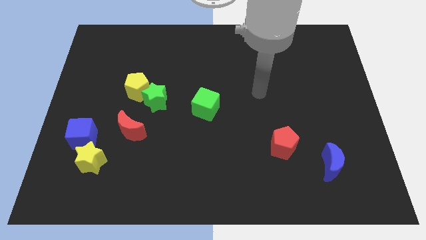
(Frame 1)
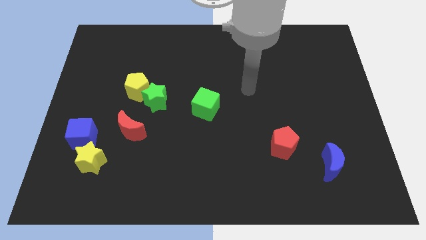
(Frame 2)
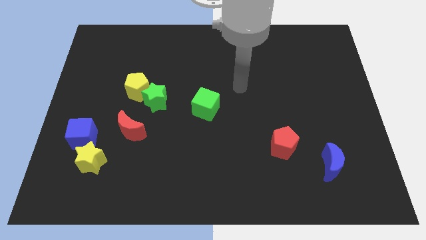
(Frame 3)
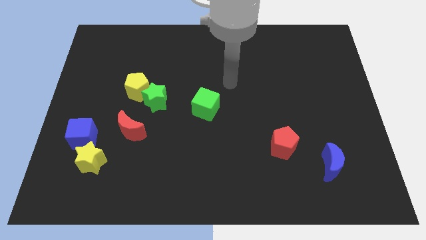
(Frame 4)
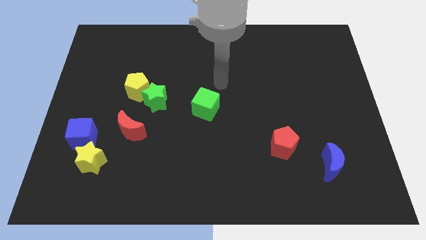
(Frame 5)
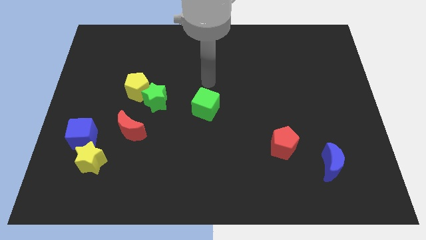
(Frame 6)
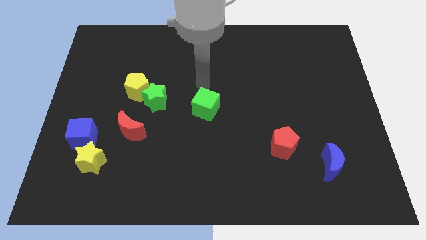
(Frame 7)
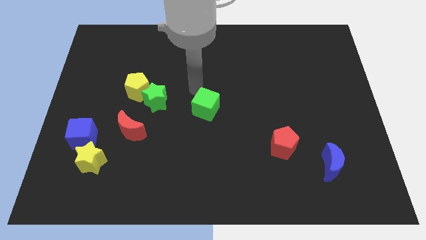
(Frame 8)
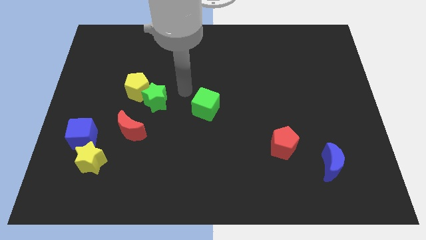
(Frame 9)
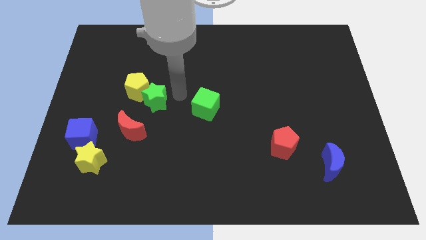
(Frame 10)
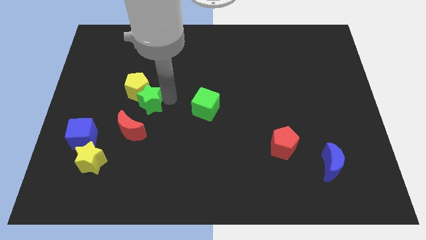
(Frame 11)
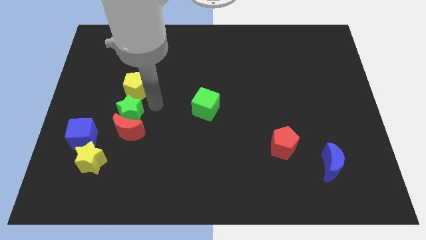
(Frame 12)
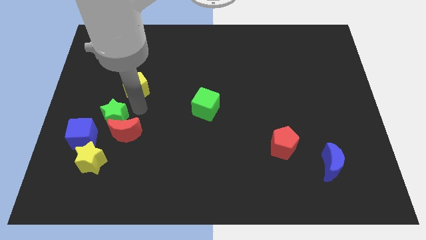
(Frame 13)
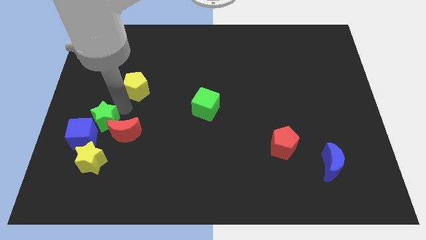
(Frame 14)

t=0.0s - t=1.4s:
pull the yellow pentagon apart from the green star

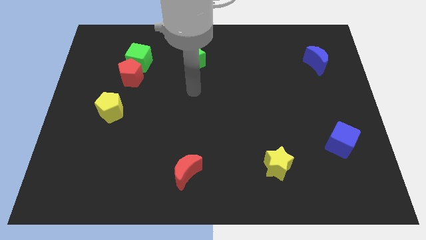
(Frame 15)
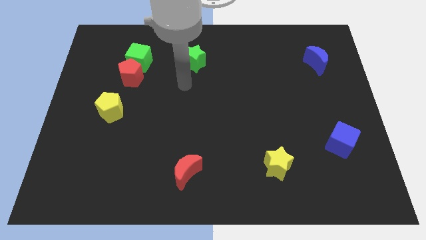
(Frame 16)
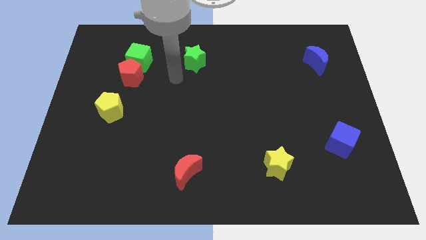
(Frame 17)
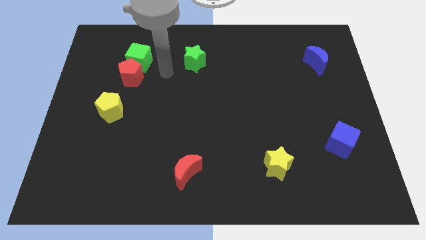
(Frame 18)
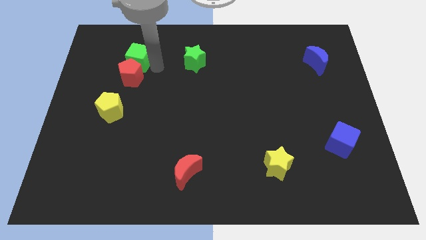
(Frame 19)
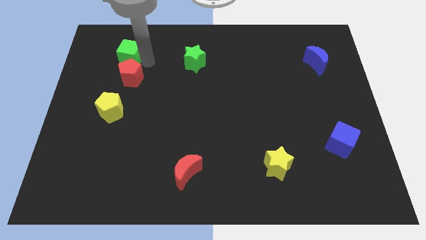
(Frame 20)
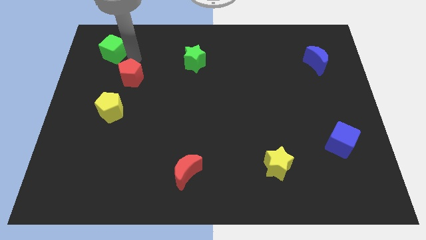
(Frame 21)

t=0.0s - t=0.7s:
separate the red pentagon from the green cube

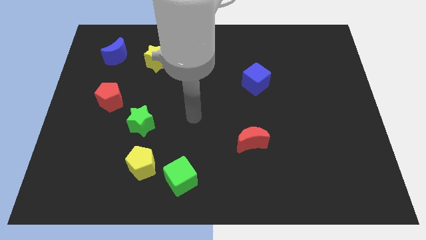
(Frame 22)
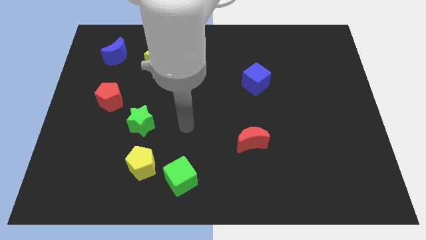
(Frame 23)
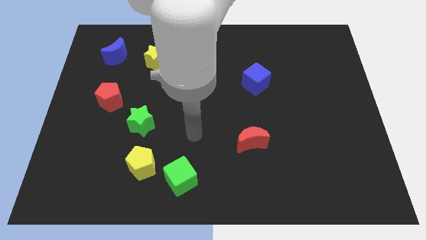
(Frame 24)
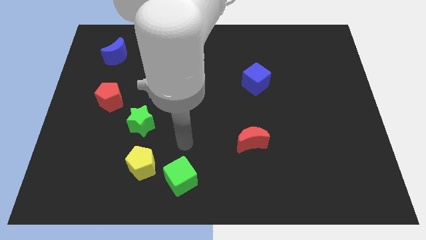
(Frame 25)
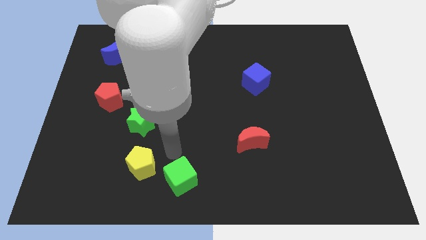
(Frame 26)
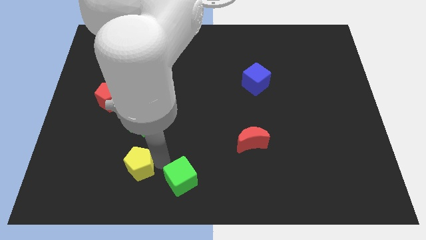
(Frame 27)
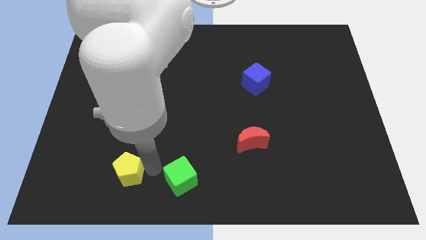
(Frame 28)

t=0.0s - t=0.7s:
move the green cube away from the yellow pentagon

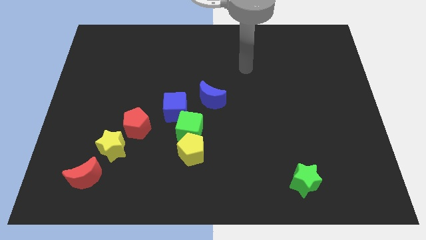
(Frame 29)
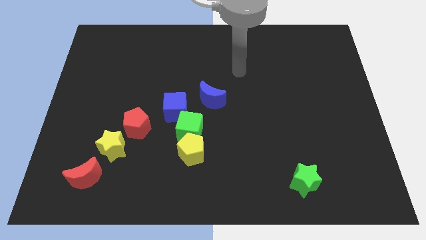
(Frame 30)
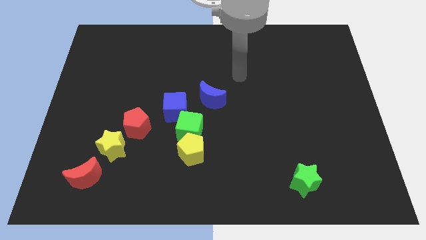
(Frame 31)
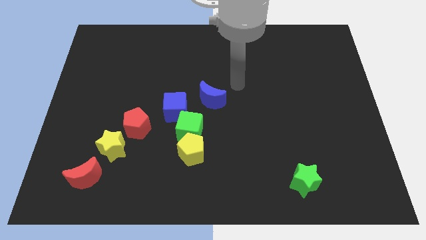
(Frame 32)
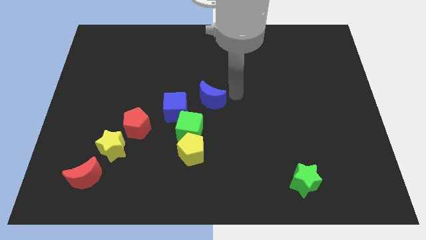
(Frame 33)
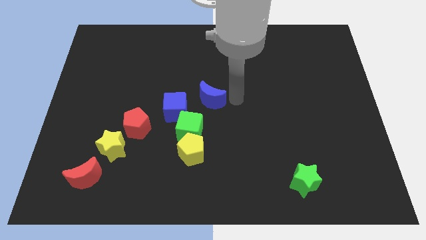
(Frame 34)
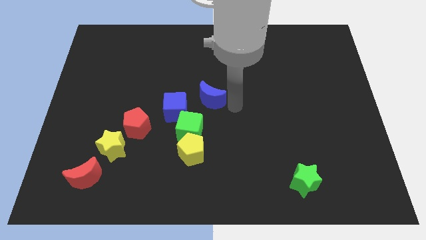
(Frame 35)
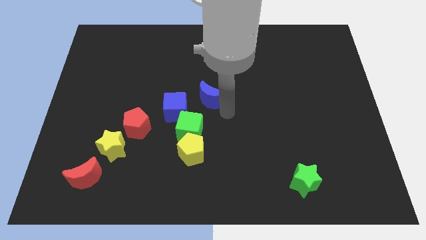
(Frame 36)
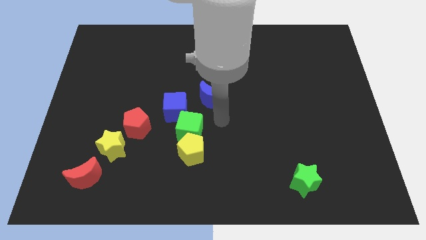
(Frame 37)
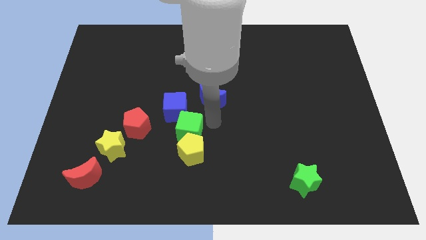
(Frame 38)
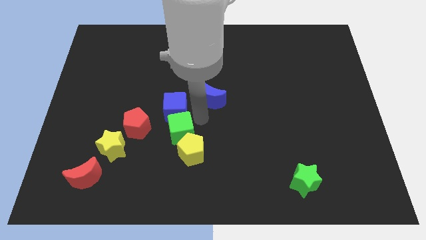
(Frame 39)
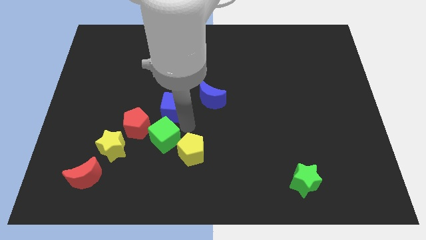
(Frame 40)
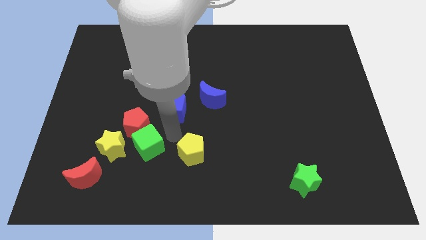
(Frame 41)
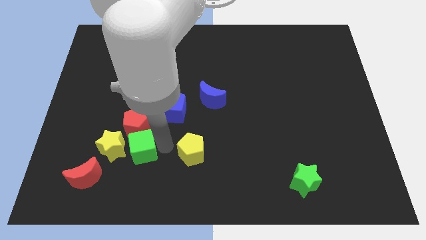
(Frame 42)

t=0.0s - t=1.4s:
pull the yellow pentagon apart from the green cube

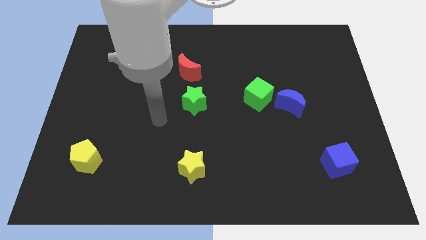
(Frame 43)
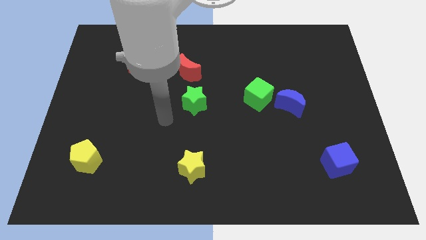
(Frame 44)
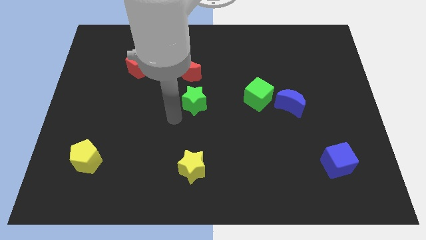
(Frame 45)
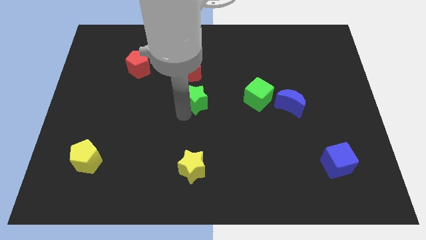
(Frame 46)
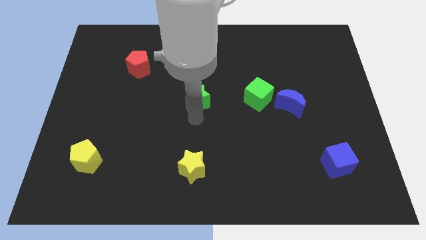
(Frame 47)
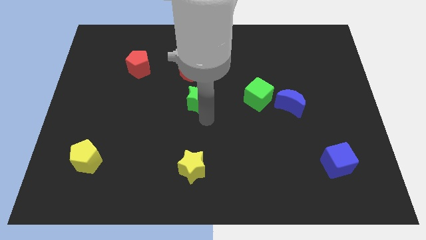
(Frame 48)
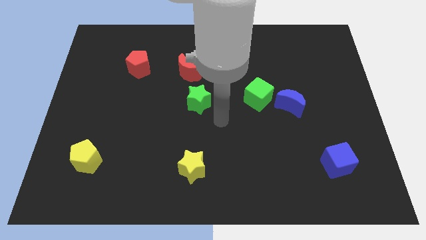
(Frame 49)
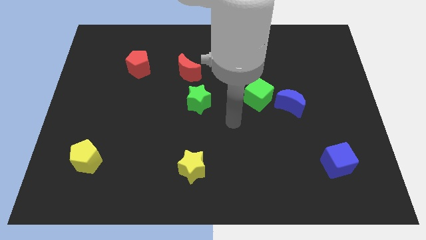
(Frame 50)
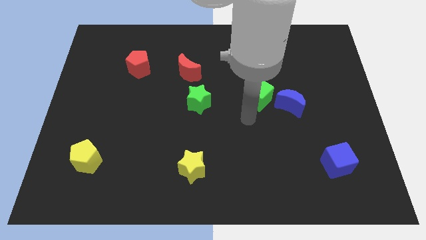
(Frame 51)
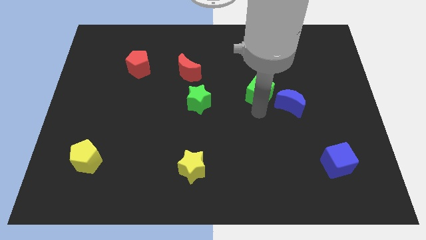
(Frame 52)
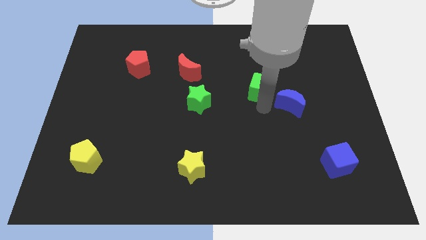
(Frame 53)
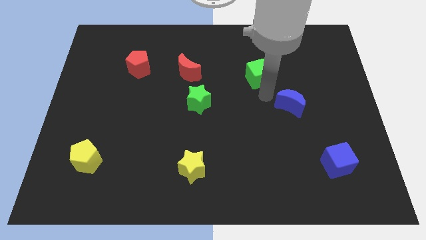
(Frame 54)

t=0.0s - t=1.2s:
move the blue moon away from the green cube

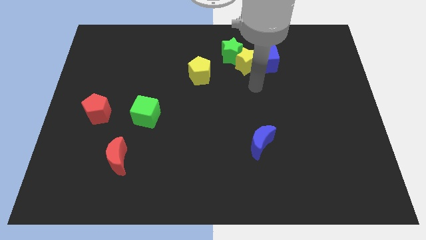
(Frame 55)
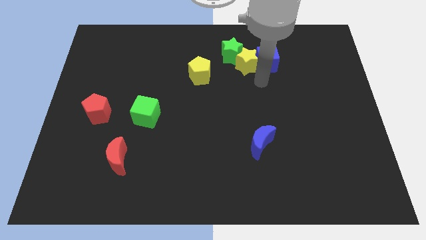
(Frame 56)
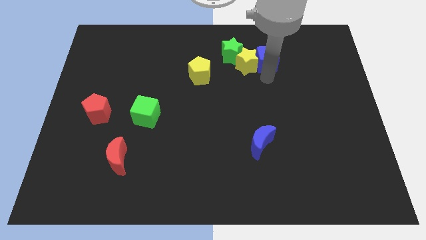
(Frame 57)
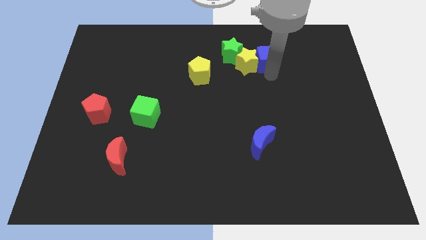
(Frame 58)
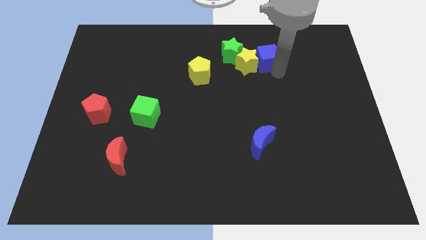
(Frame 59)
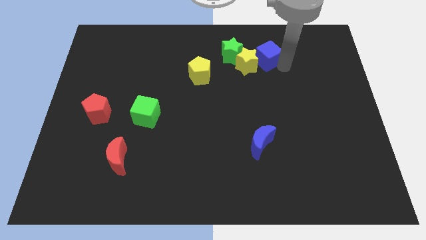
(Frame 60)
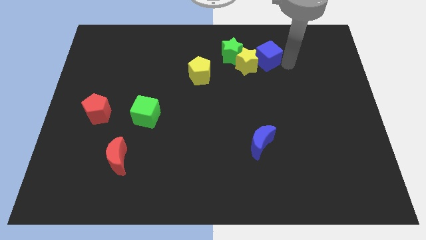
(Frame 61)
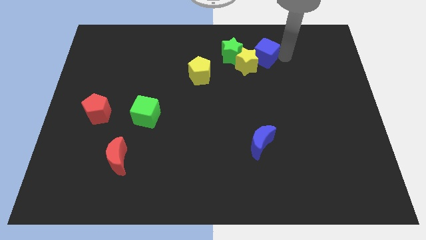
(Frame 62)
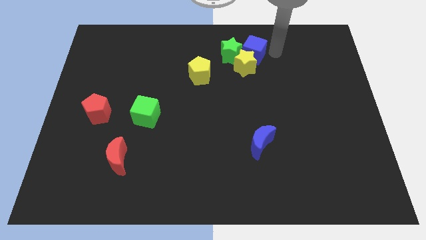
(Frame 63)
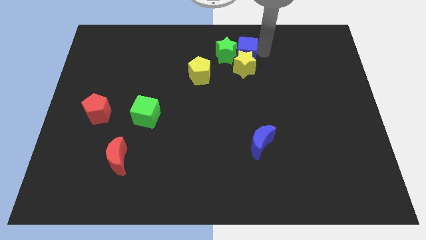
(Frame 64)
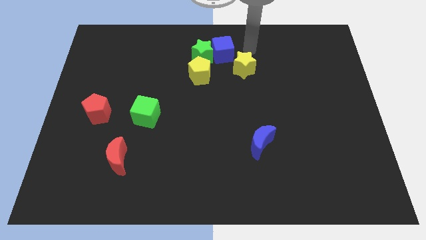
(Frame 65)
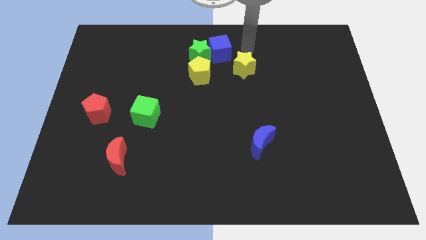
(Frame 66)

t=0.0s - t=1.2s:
move the yellow star away from the blue cube and green star

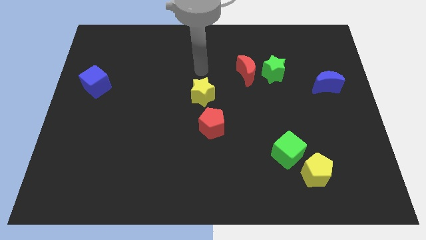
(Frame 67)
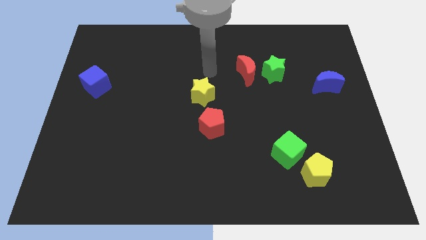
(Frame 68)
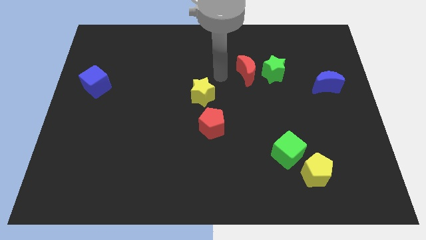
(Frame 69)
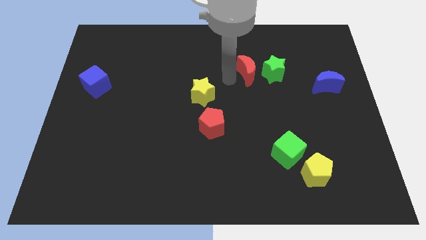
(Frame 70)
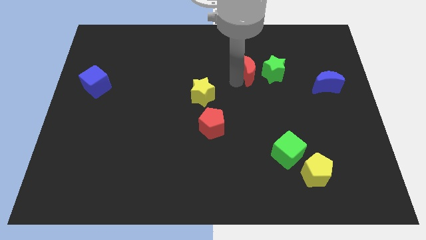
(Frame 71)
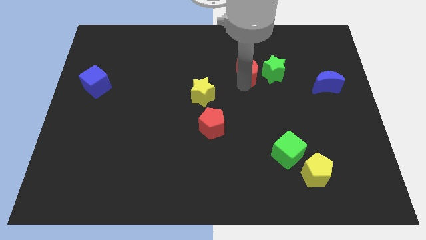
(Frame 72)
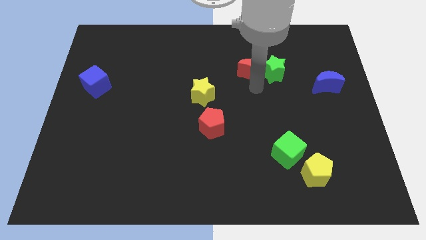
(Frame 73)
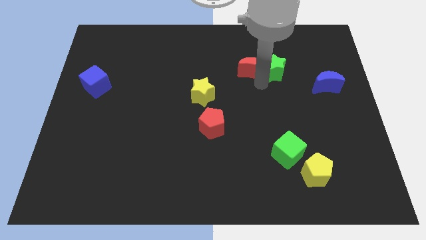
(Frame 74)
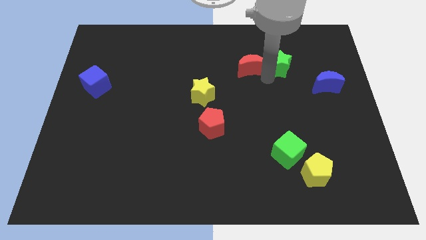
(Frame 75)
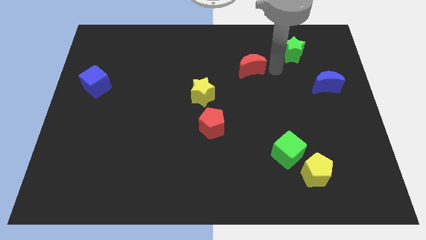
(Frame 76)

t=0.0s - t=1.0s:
move the red moon away from the green star

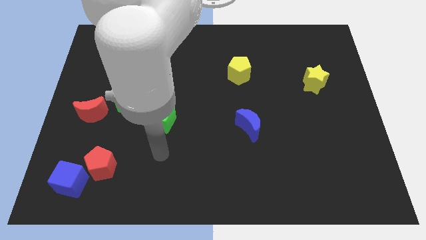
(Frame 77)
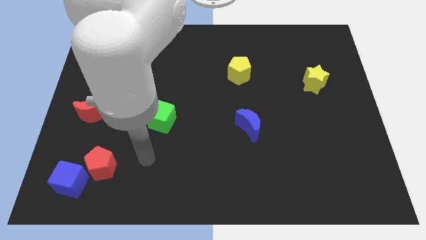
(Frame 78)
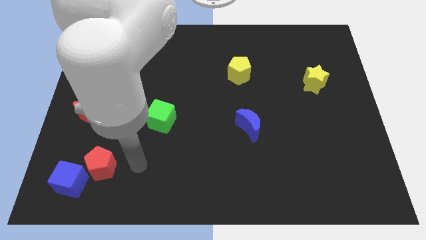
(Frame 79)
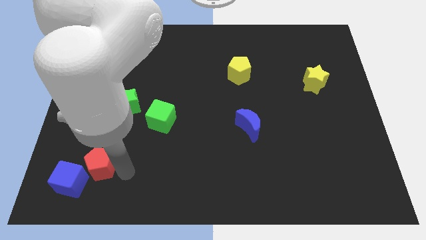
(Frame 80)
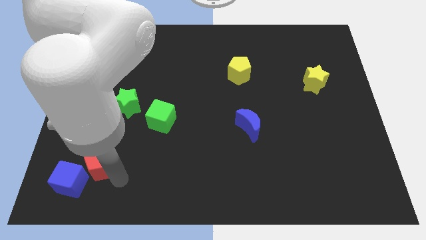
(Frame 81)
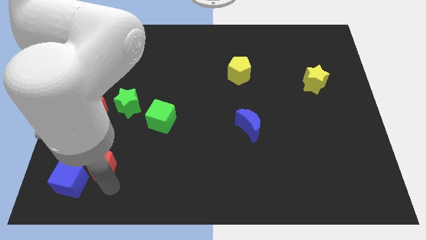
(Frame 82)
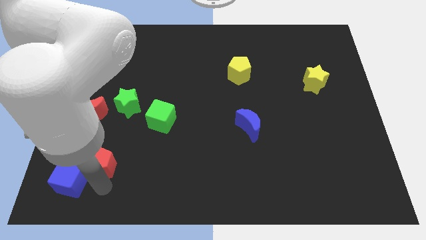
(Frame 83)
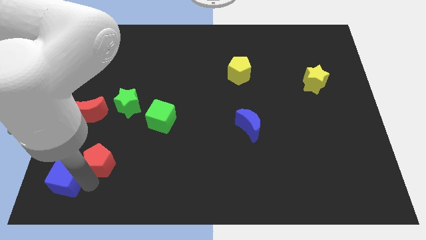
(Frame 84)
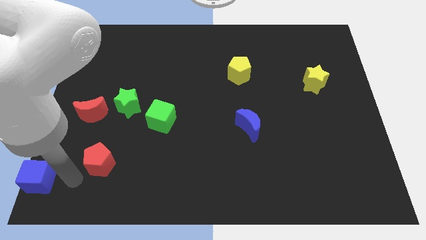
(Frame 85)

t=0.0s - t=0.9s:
move the red pentagon away from the blue cube

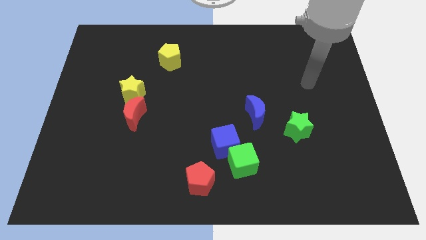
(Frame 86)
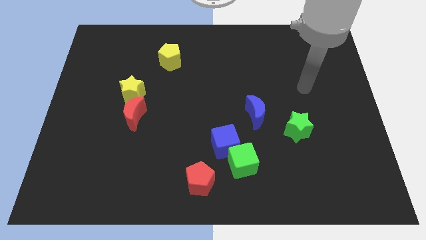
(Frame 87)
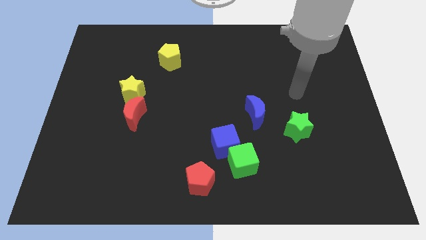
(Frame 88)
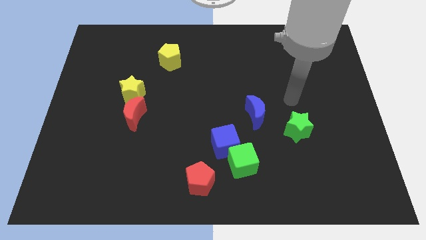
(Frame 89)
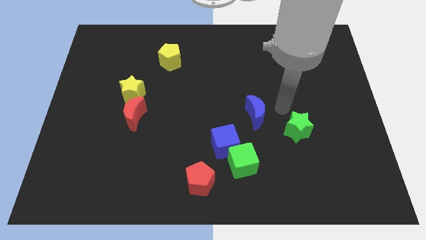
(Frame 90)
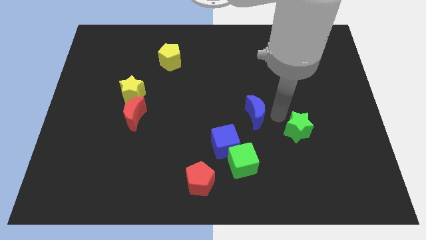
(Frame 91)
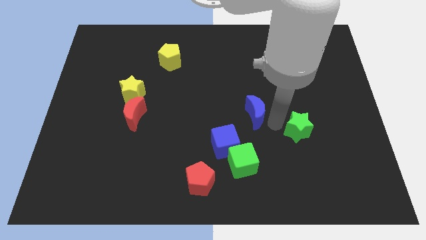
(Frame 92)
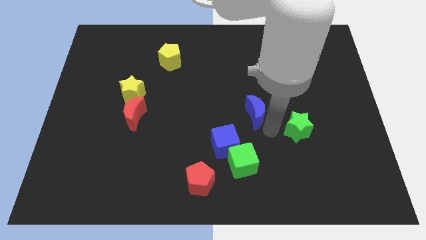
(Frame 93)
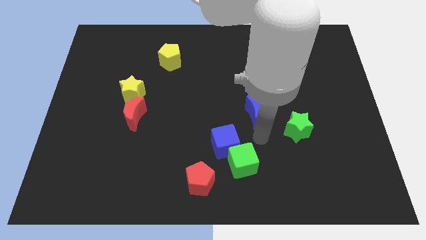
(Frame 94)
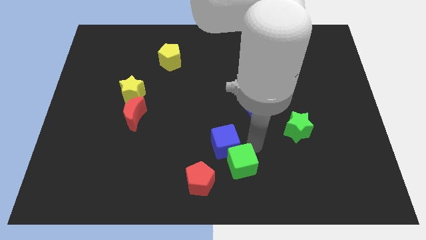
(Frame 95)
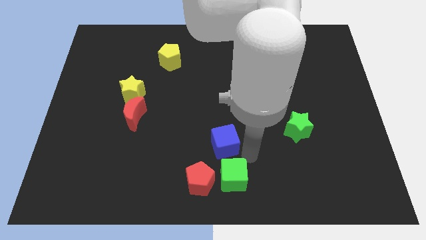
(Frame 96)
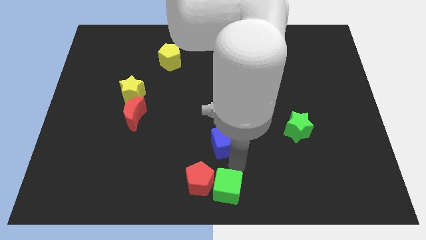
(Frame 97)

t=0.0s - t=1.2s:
pull the blue cube apart from the green cube
